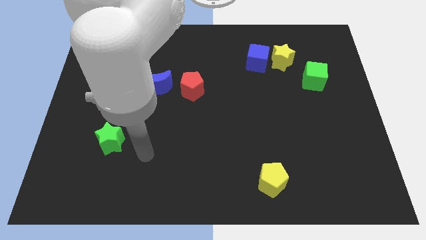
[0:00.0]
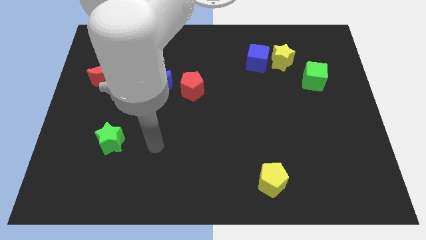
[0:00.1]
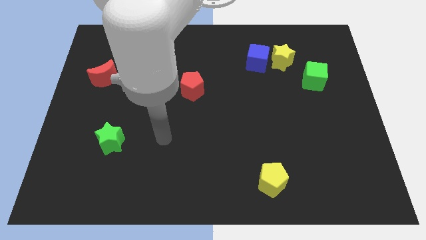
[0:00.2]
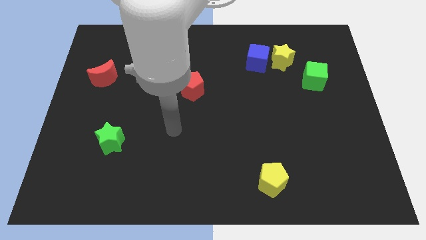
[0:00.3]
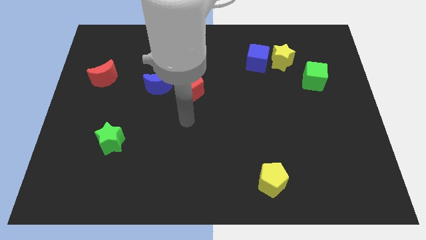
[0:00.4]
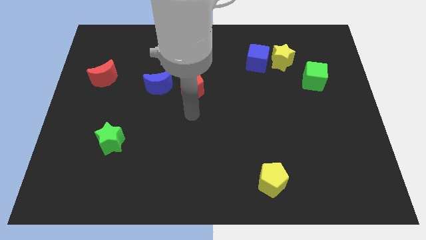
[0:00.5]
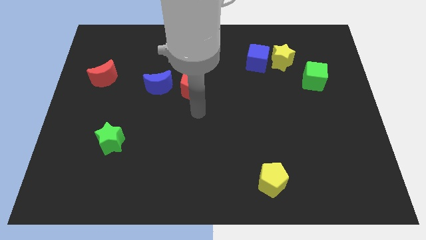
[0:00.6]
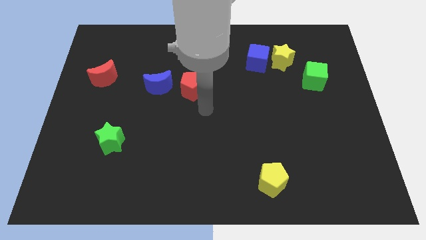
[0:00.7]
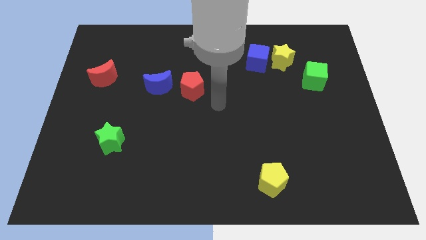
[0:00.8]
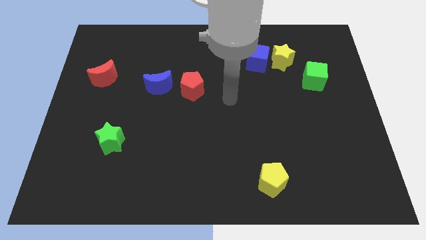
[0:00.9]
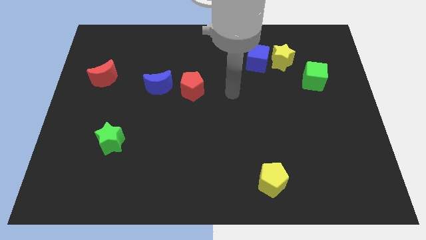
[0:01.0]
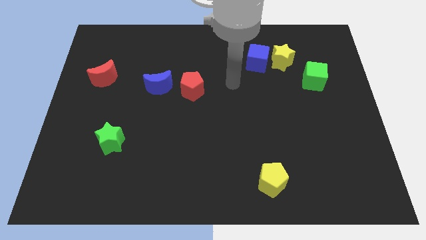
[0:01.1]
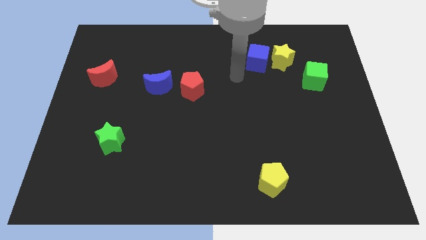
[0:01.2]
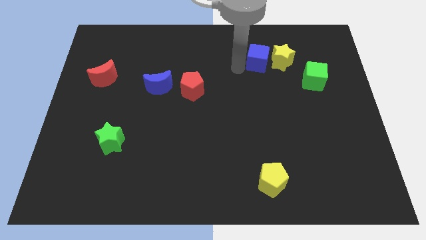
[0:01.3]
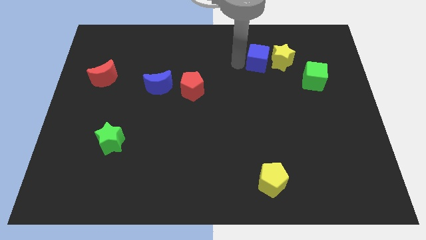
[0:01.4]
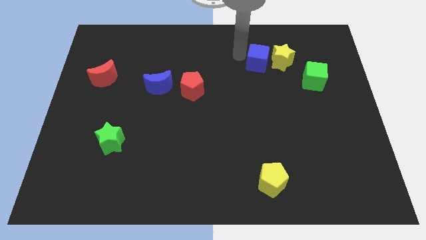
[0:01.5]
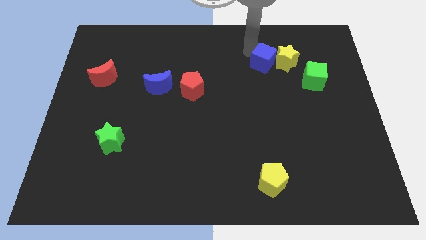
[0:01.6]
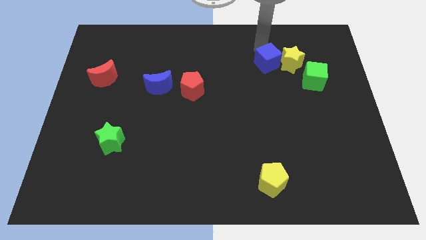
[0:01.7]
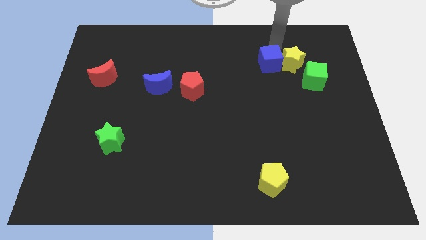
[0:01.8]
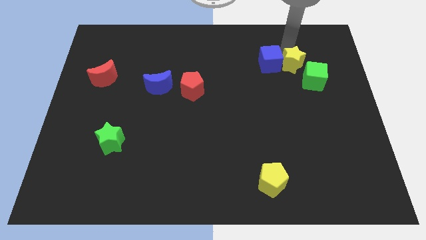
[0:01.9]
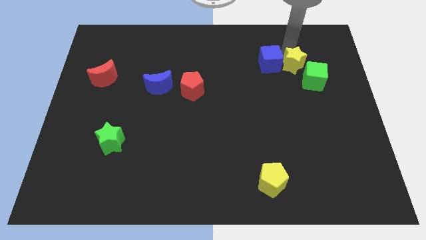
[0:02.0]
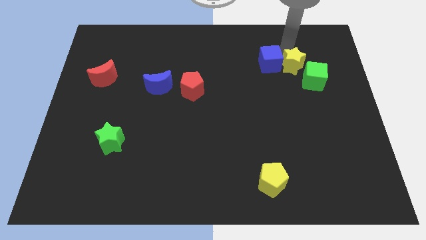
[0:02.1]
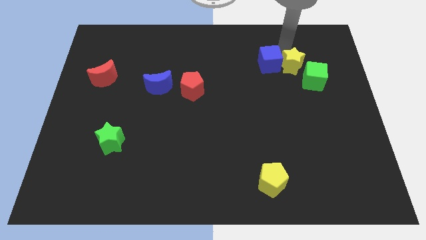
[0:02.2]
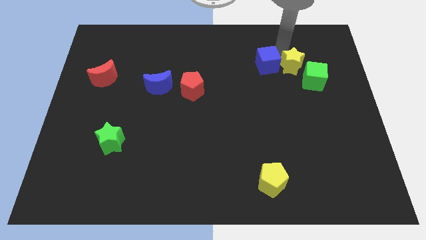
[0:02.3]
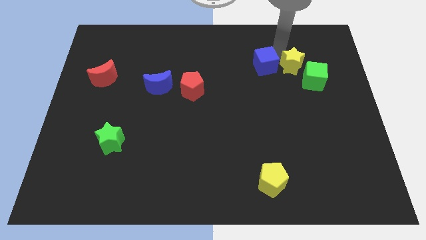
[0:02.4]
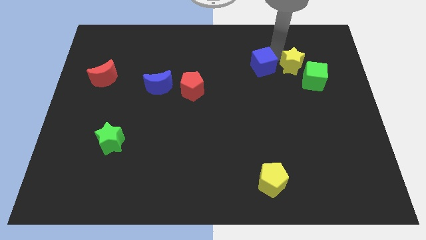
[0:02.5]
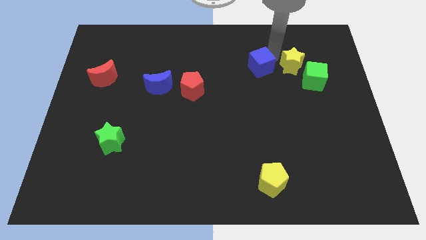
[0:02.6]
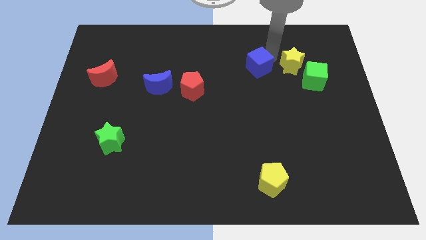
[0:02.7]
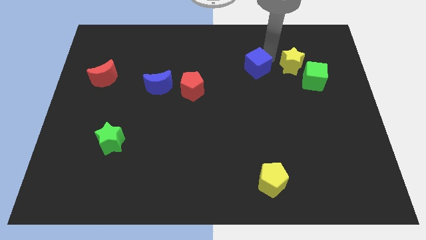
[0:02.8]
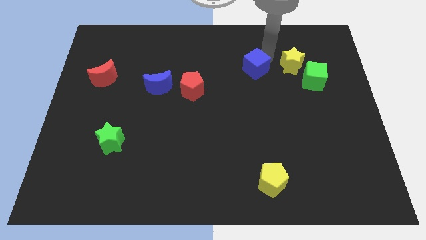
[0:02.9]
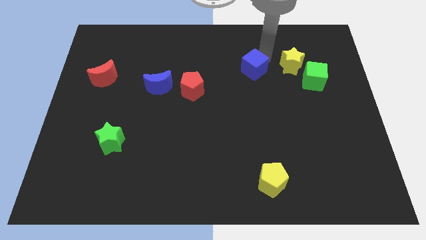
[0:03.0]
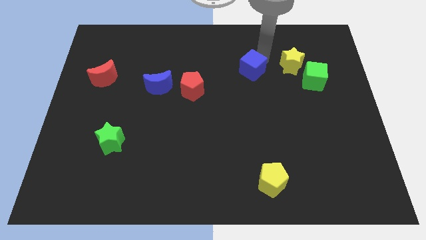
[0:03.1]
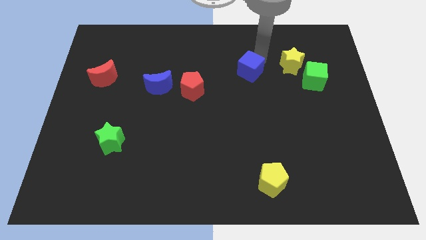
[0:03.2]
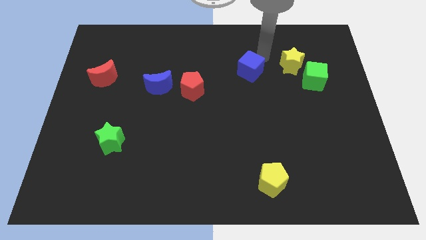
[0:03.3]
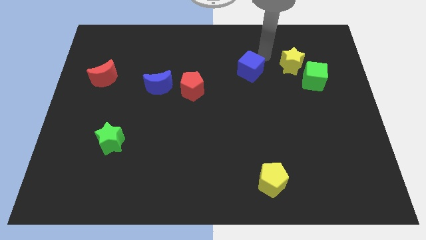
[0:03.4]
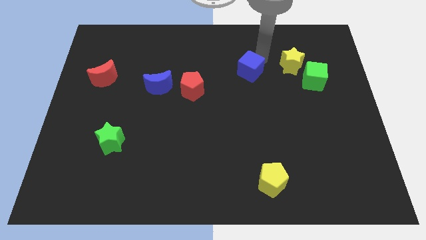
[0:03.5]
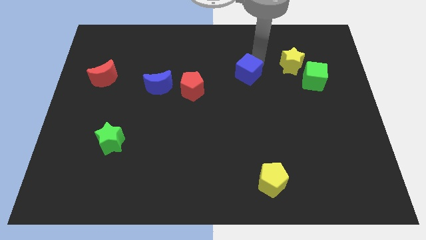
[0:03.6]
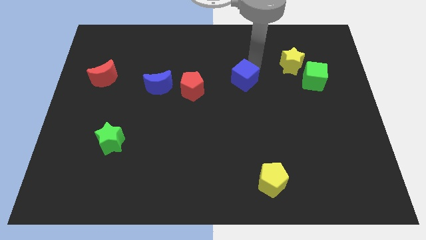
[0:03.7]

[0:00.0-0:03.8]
slide the blue cube somewhat diagonally down and left

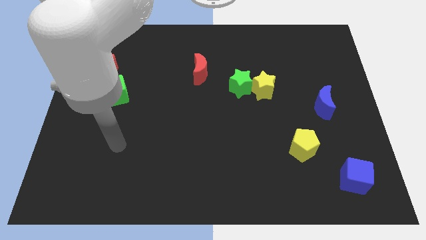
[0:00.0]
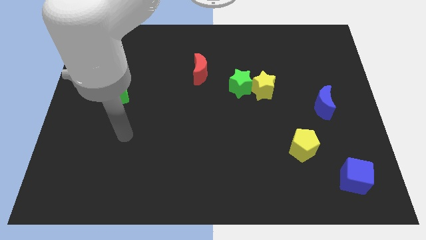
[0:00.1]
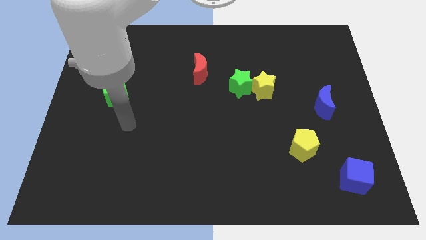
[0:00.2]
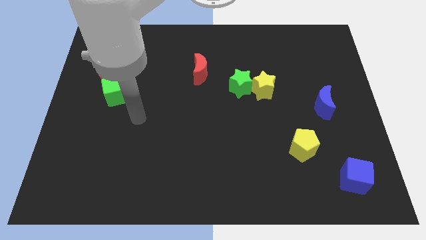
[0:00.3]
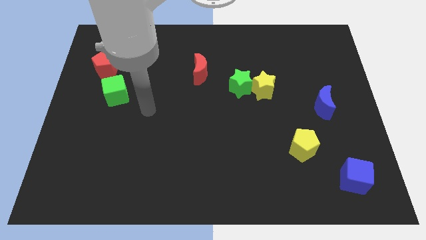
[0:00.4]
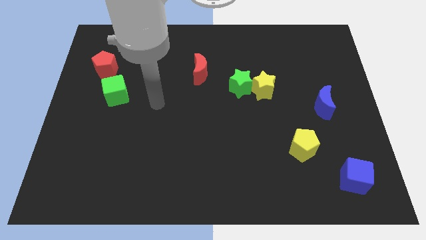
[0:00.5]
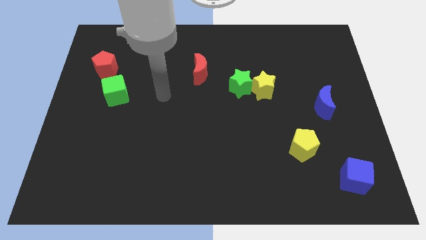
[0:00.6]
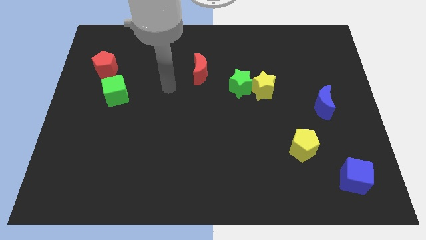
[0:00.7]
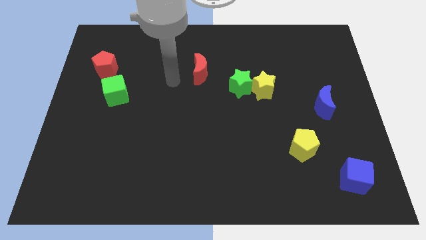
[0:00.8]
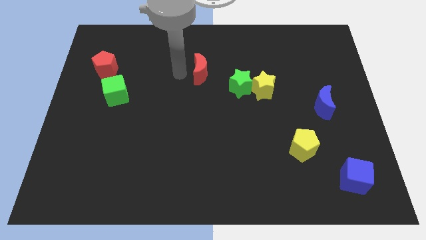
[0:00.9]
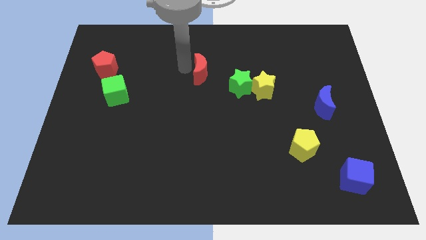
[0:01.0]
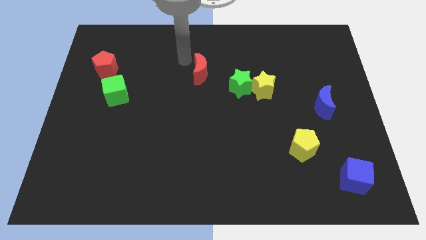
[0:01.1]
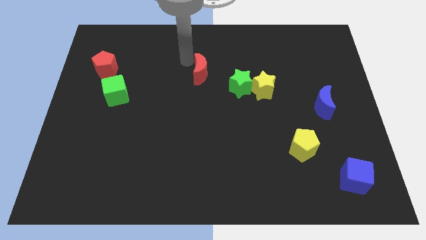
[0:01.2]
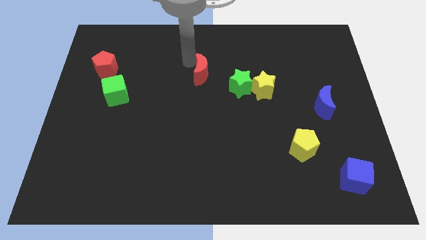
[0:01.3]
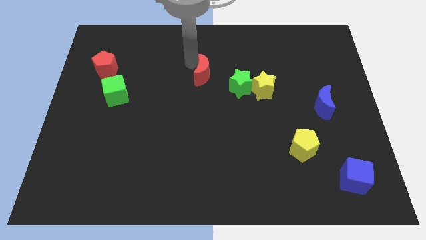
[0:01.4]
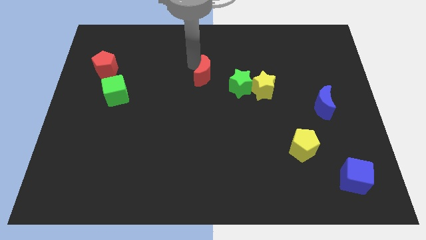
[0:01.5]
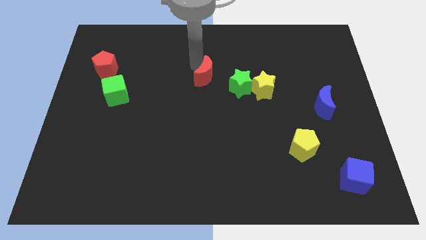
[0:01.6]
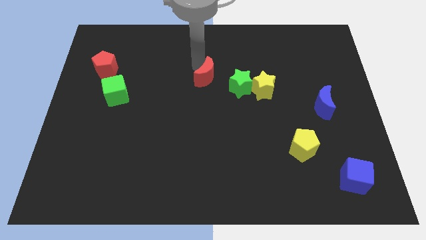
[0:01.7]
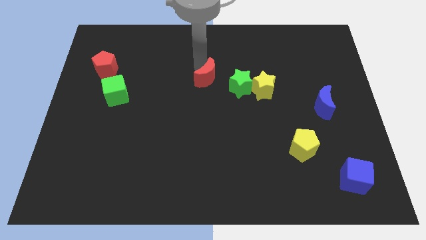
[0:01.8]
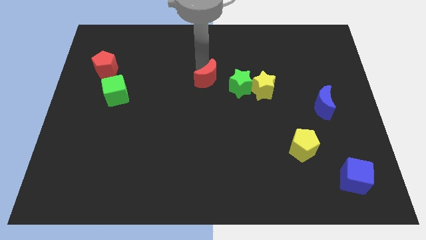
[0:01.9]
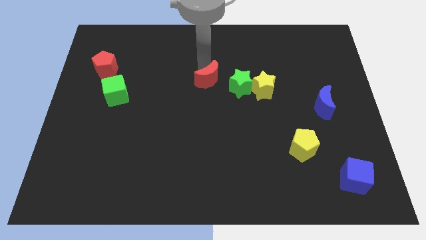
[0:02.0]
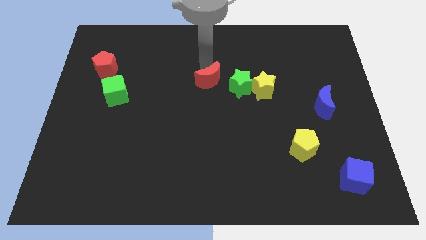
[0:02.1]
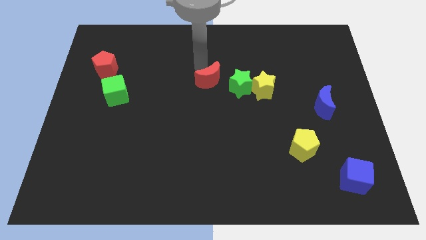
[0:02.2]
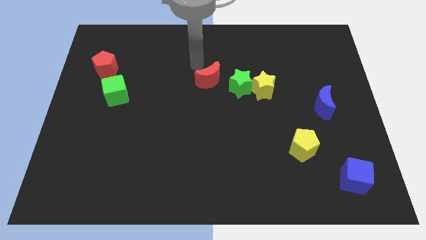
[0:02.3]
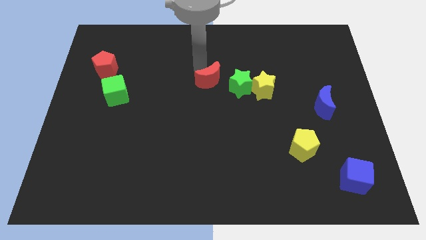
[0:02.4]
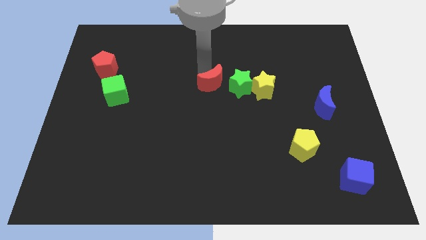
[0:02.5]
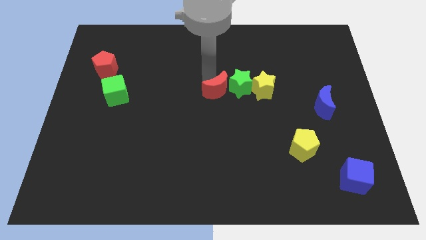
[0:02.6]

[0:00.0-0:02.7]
slide the red moon diagonally down and right a bit

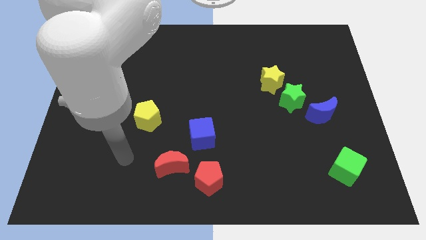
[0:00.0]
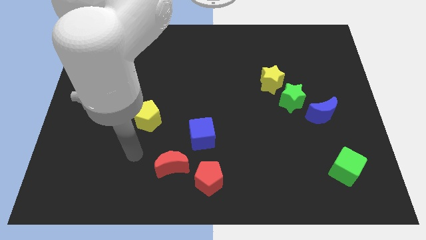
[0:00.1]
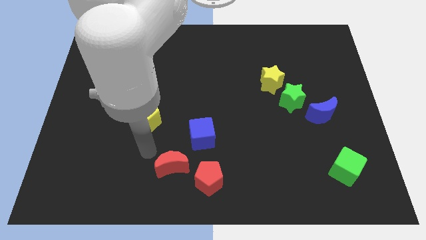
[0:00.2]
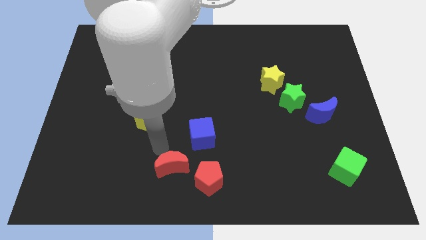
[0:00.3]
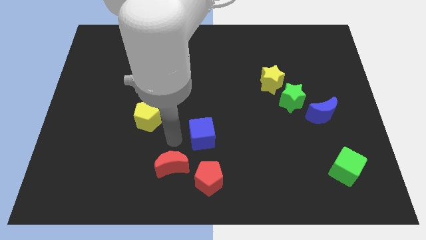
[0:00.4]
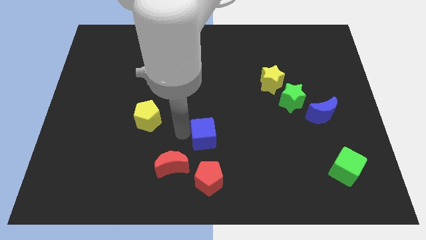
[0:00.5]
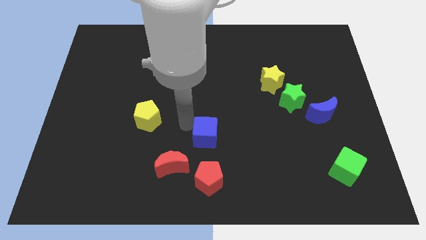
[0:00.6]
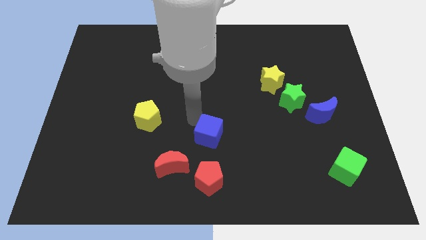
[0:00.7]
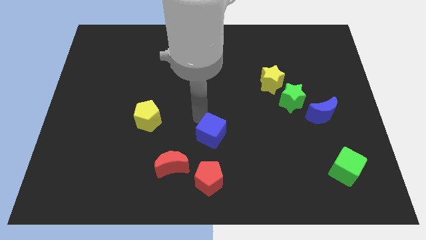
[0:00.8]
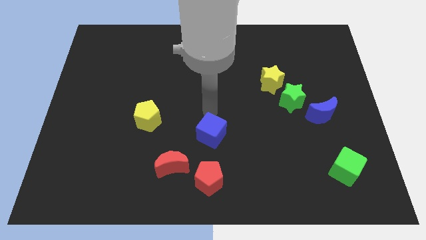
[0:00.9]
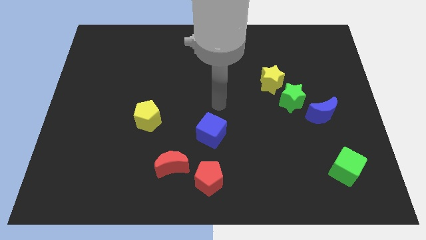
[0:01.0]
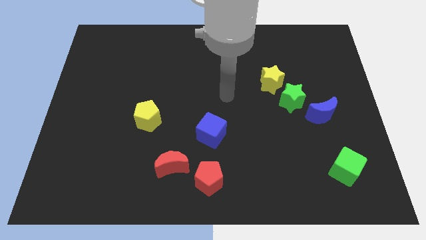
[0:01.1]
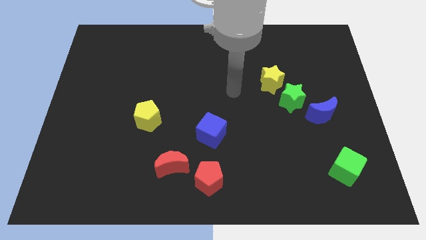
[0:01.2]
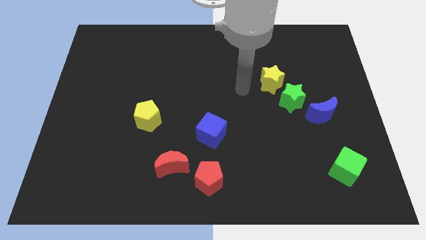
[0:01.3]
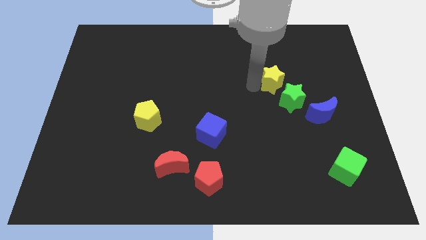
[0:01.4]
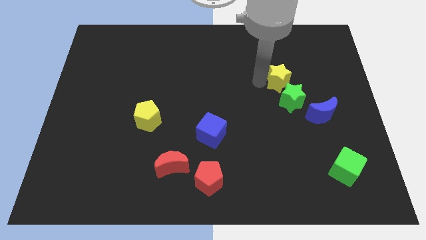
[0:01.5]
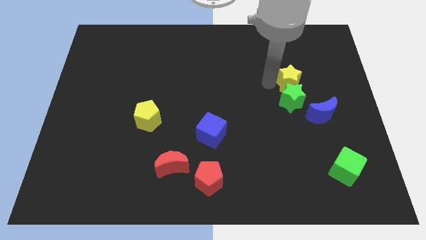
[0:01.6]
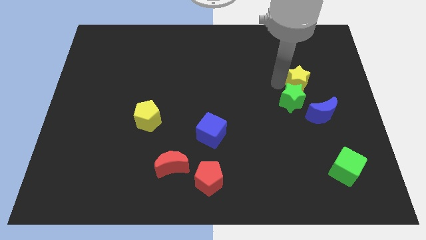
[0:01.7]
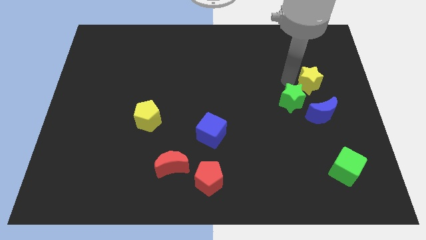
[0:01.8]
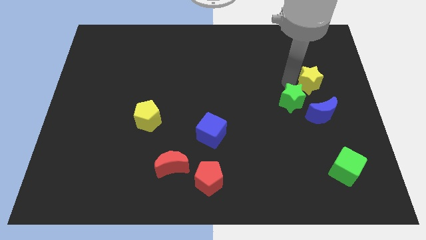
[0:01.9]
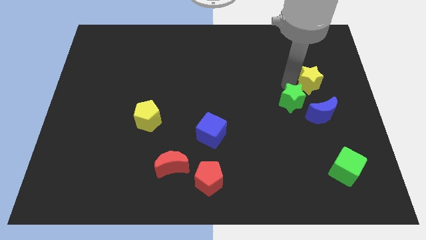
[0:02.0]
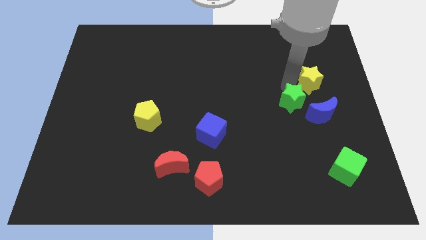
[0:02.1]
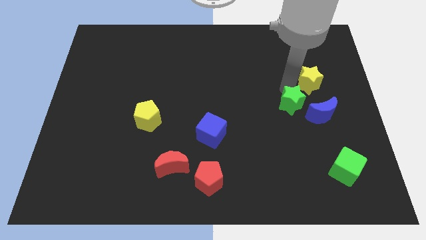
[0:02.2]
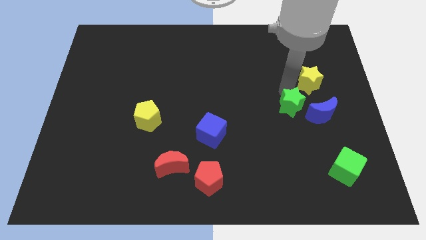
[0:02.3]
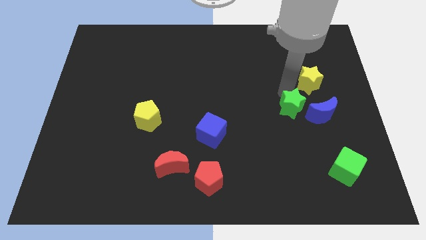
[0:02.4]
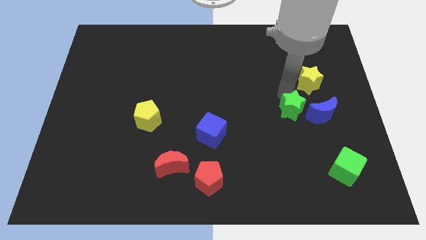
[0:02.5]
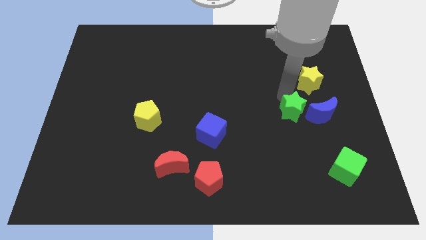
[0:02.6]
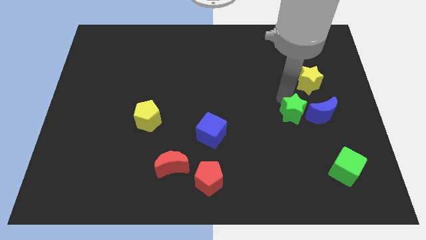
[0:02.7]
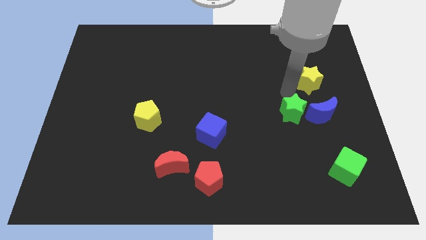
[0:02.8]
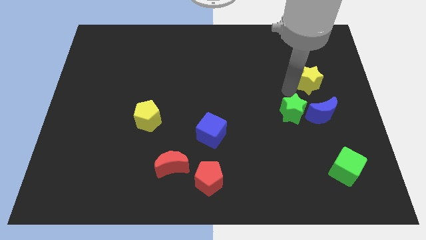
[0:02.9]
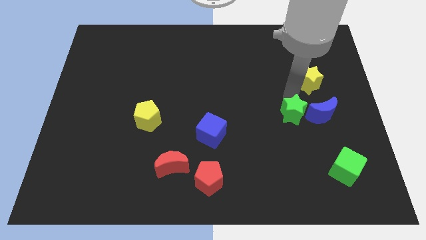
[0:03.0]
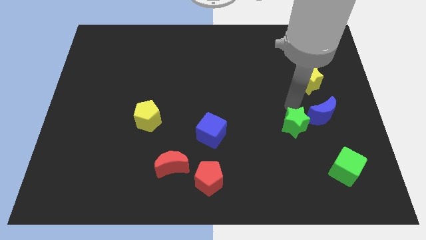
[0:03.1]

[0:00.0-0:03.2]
move the green star down slightly
